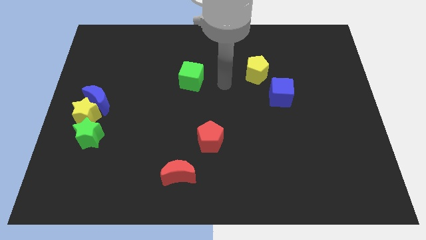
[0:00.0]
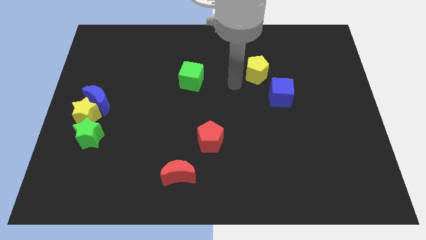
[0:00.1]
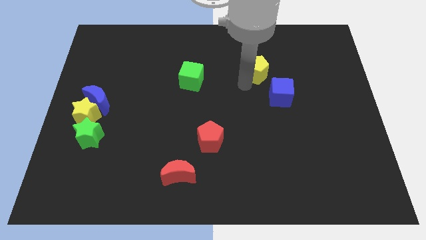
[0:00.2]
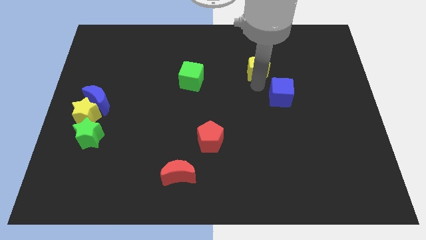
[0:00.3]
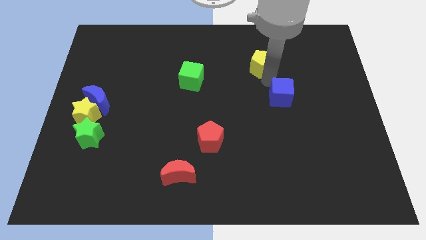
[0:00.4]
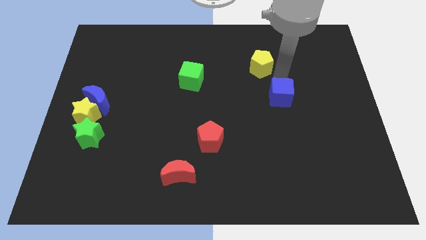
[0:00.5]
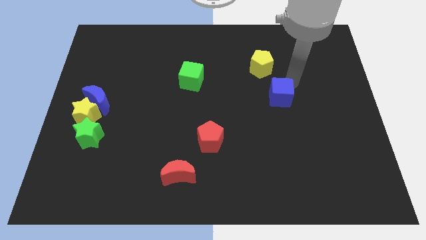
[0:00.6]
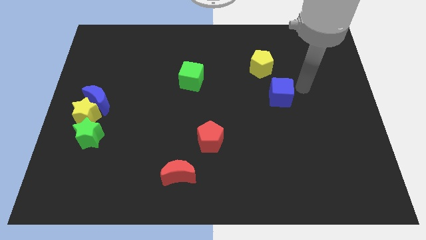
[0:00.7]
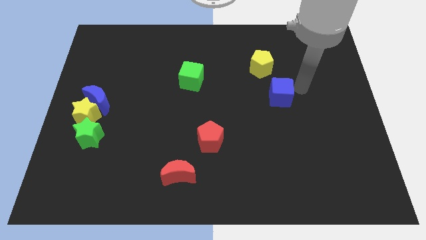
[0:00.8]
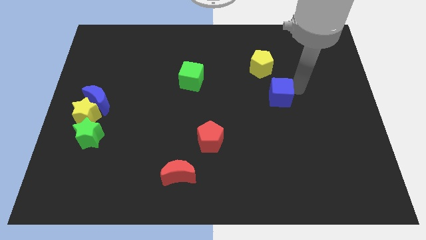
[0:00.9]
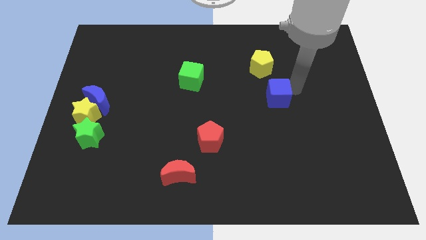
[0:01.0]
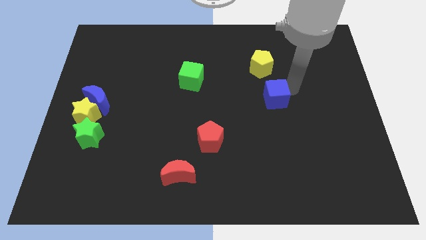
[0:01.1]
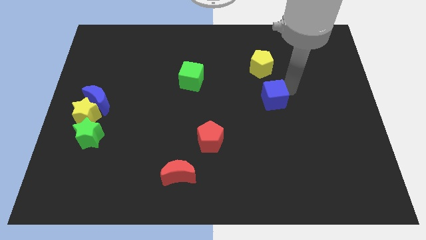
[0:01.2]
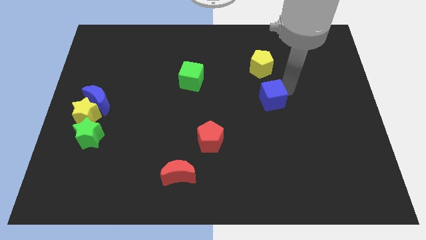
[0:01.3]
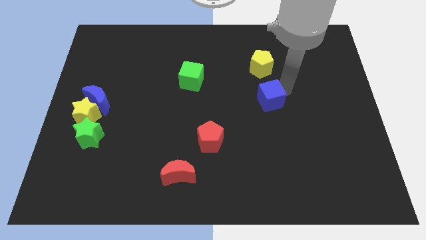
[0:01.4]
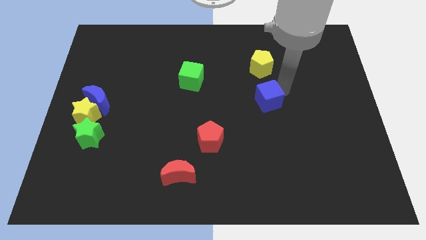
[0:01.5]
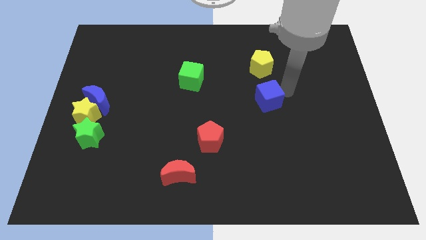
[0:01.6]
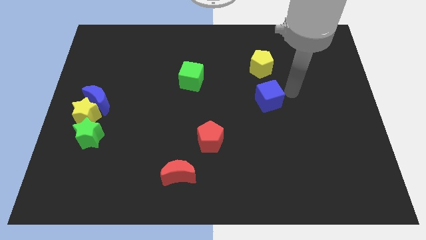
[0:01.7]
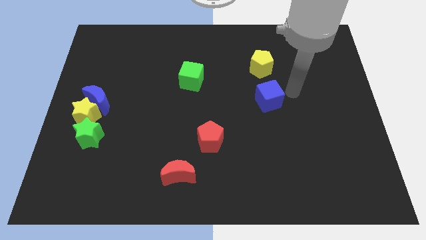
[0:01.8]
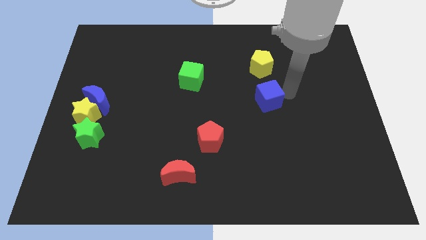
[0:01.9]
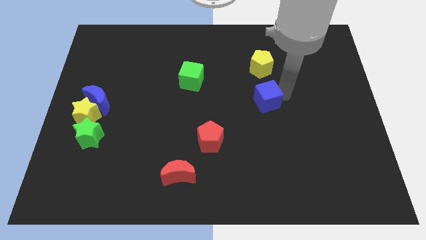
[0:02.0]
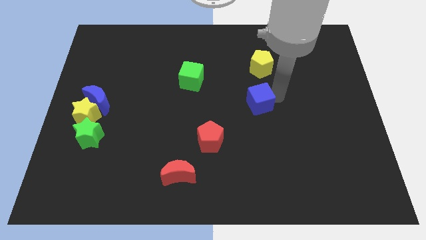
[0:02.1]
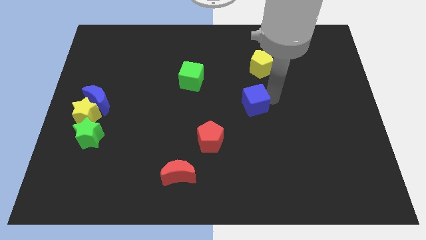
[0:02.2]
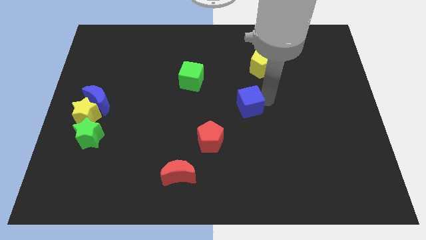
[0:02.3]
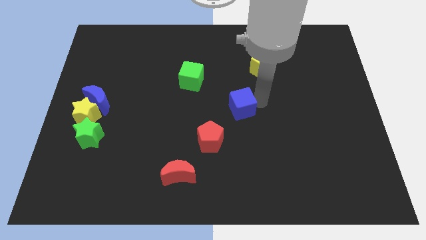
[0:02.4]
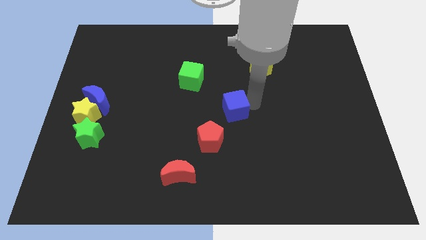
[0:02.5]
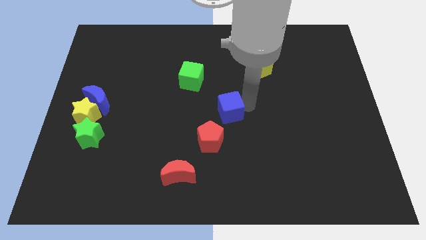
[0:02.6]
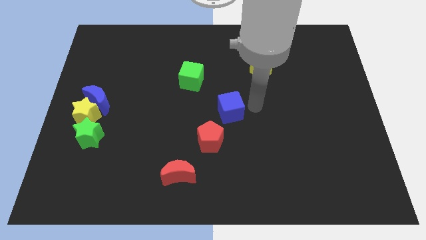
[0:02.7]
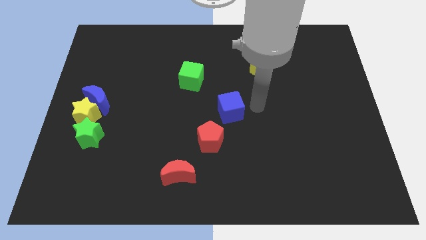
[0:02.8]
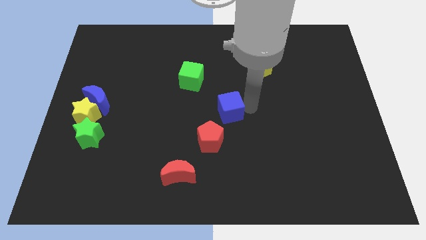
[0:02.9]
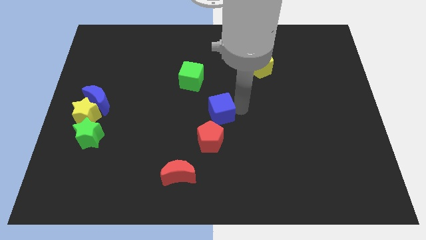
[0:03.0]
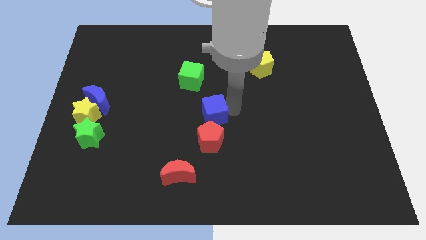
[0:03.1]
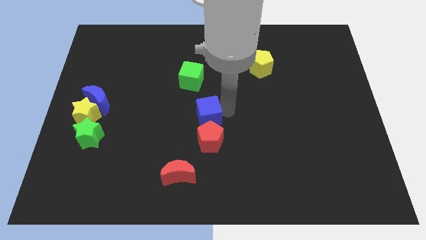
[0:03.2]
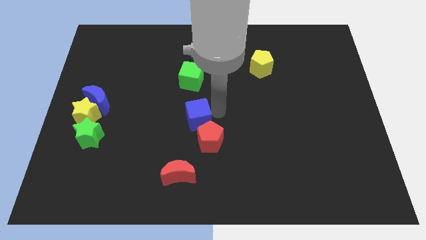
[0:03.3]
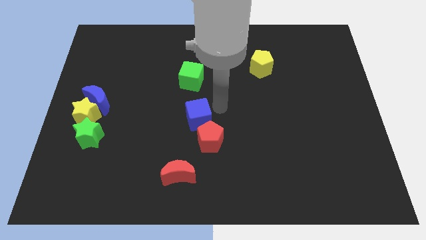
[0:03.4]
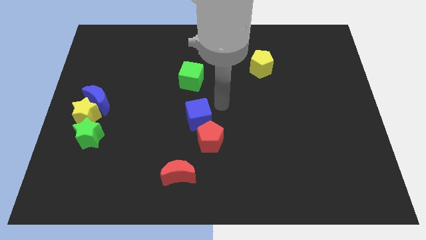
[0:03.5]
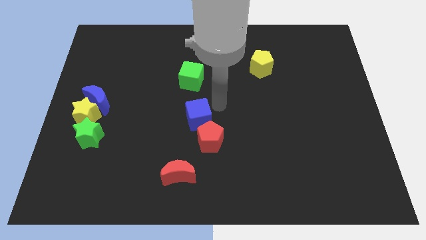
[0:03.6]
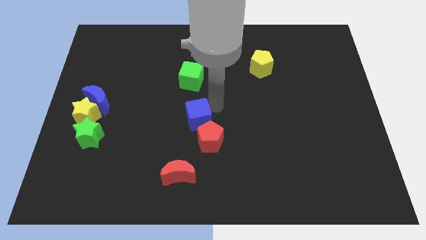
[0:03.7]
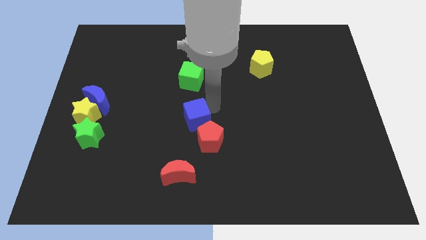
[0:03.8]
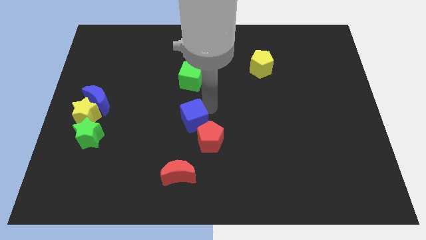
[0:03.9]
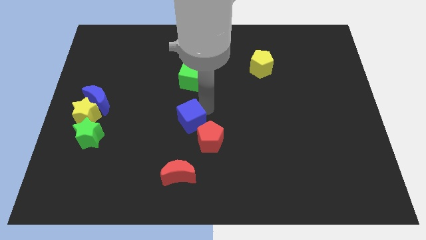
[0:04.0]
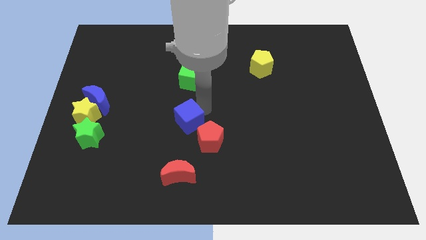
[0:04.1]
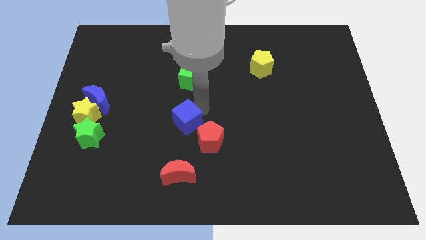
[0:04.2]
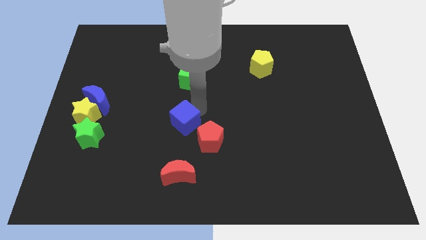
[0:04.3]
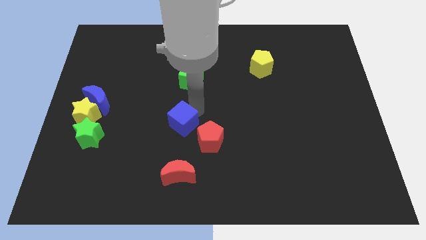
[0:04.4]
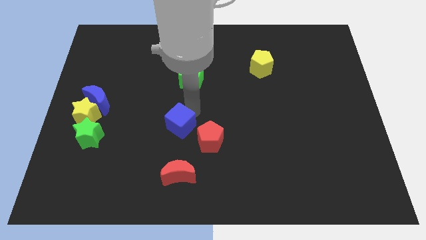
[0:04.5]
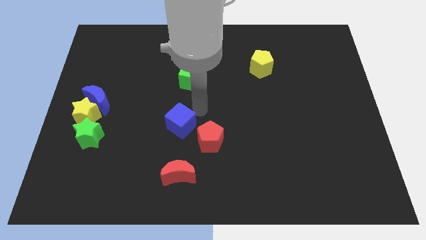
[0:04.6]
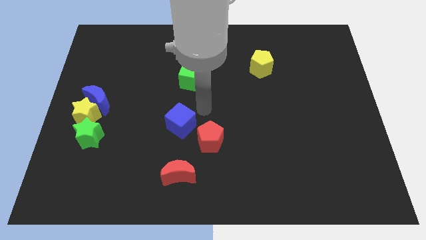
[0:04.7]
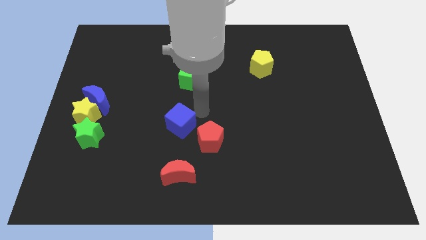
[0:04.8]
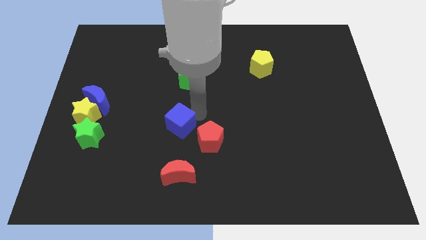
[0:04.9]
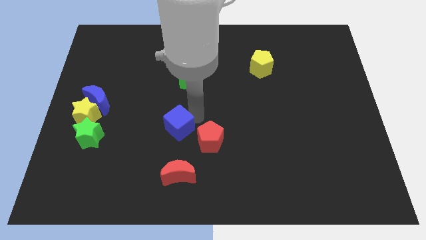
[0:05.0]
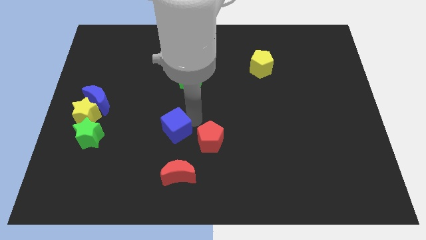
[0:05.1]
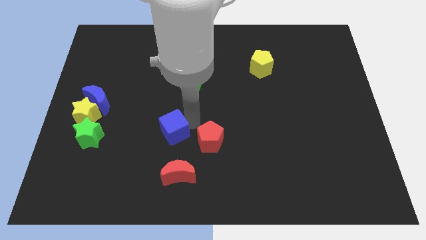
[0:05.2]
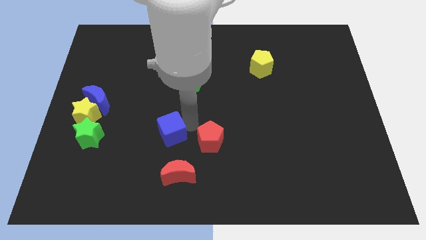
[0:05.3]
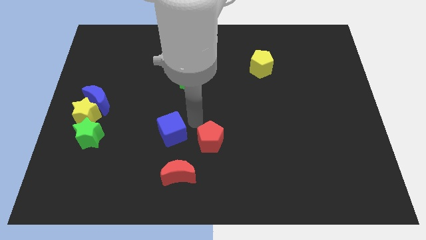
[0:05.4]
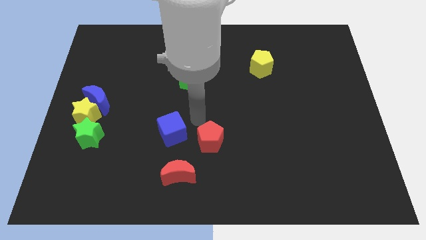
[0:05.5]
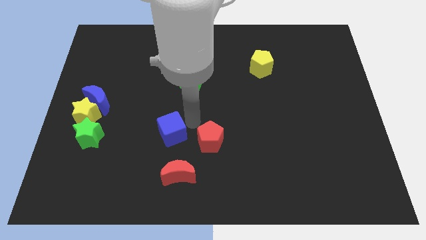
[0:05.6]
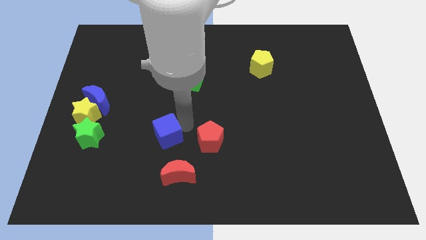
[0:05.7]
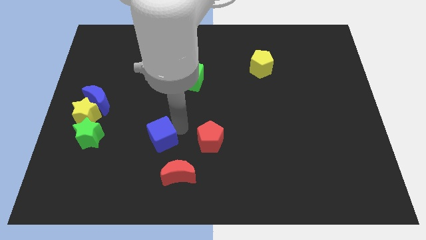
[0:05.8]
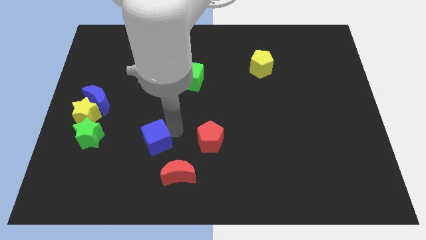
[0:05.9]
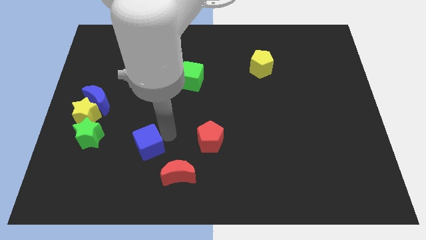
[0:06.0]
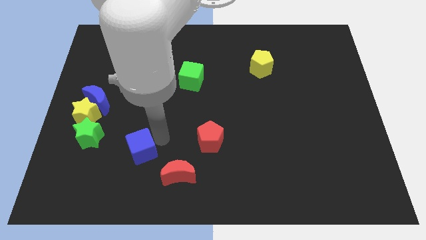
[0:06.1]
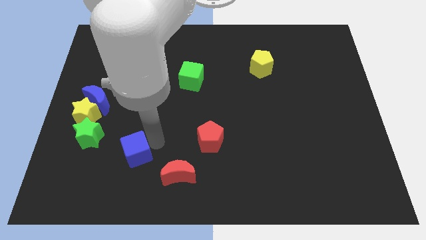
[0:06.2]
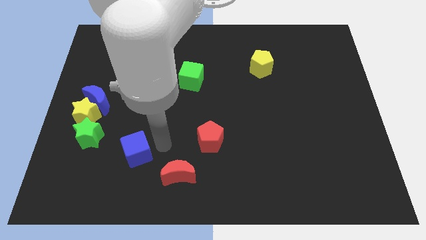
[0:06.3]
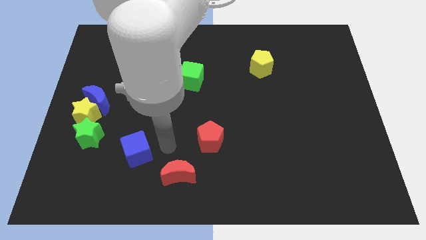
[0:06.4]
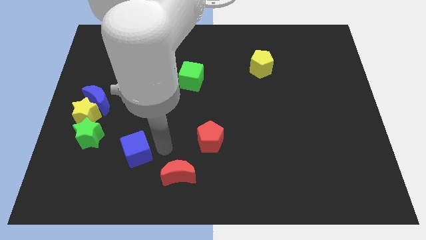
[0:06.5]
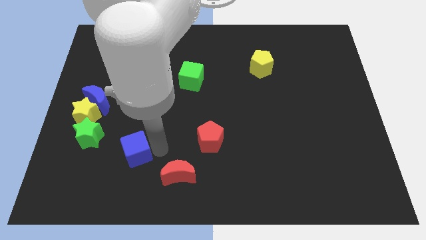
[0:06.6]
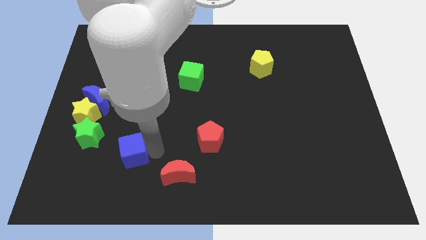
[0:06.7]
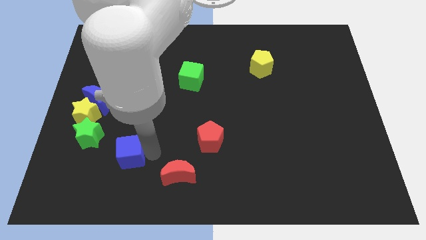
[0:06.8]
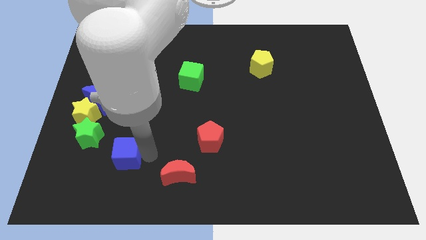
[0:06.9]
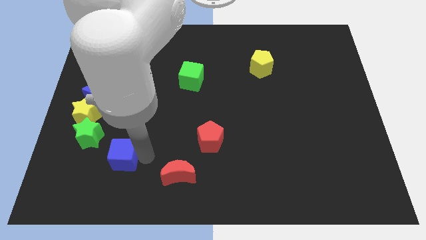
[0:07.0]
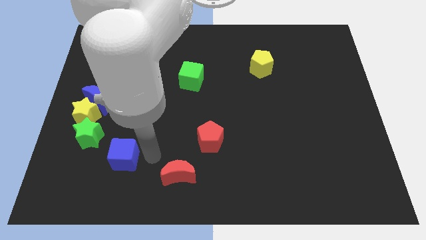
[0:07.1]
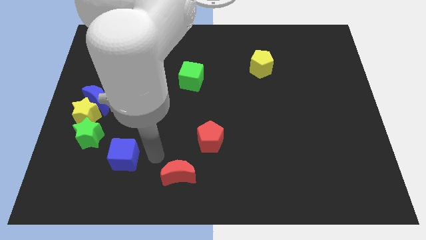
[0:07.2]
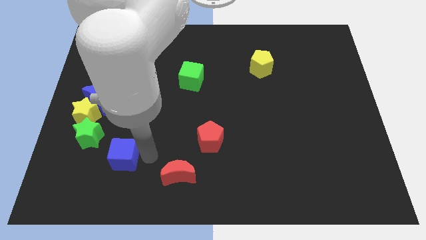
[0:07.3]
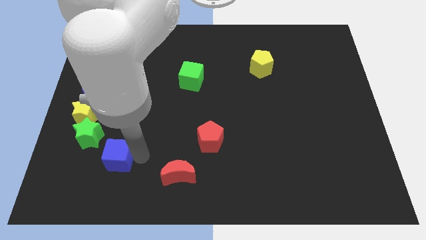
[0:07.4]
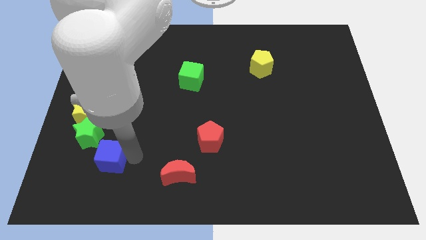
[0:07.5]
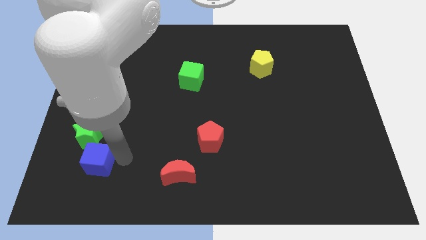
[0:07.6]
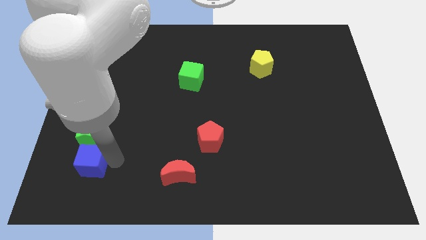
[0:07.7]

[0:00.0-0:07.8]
slide the blue cube to the bottom side of the yellow star
